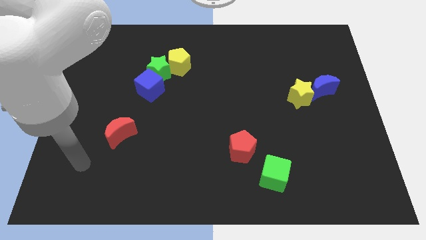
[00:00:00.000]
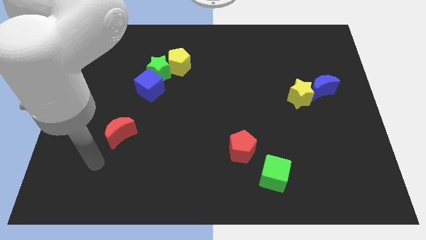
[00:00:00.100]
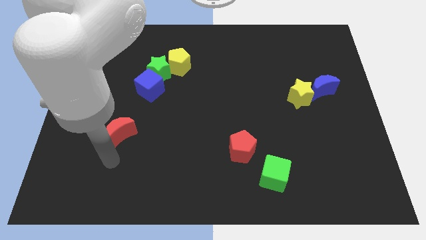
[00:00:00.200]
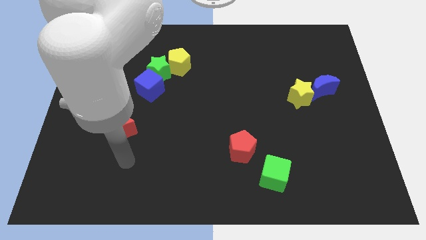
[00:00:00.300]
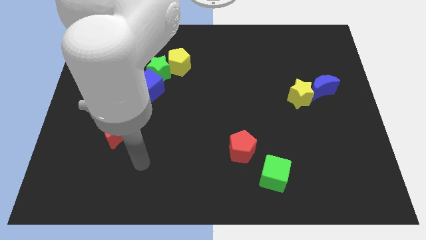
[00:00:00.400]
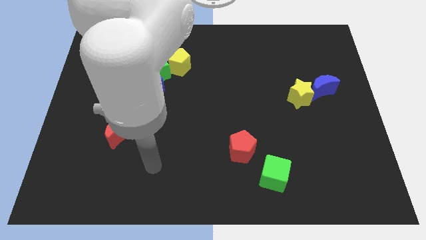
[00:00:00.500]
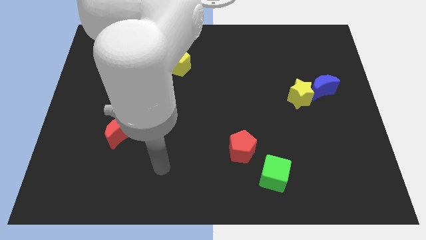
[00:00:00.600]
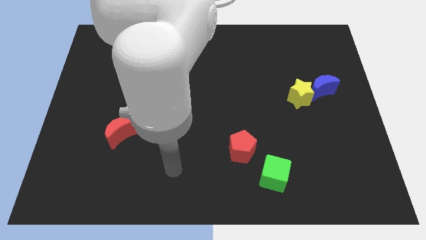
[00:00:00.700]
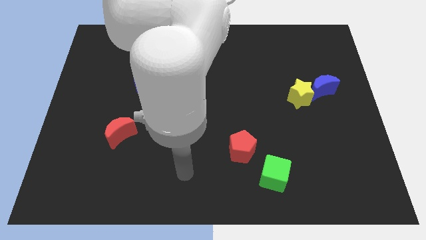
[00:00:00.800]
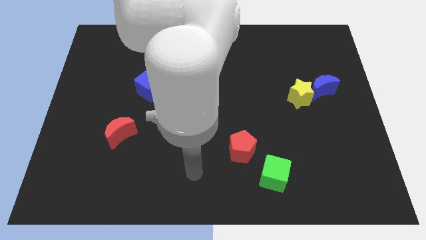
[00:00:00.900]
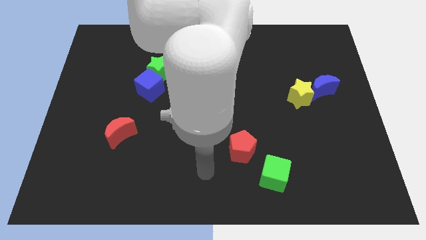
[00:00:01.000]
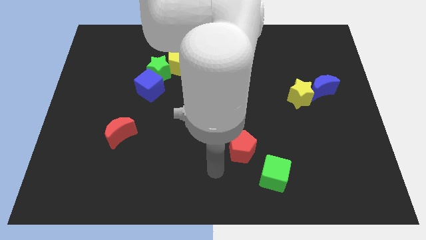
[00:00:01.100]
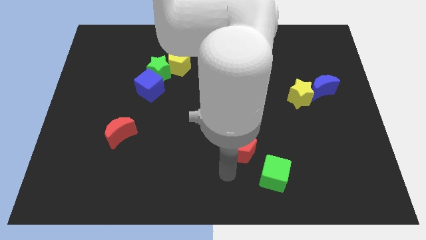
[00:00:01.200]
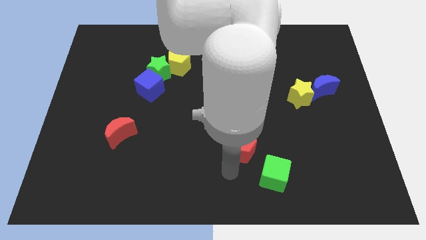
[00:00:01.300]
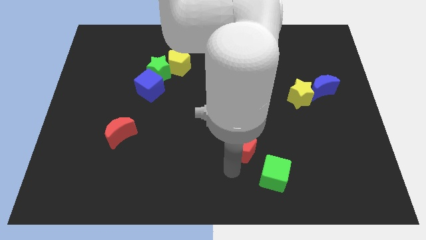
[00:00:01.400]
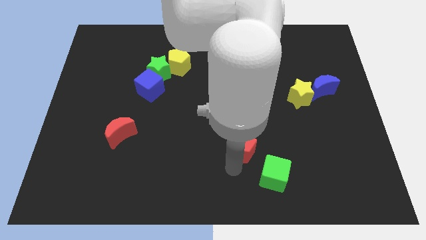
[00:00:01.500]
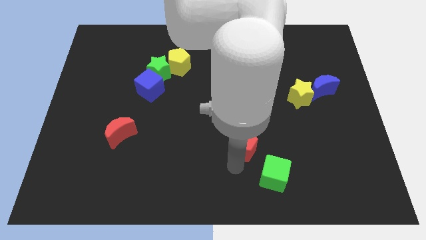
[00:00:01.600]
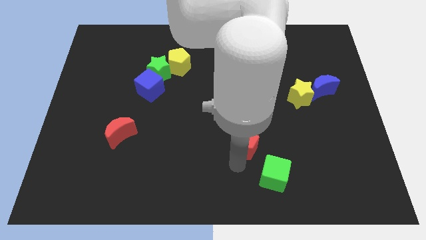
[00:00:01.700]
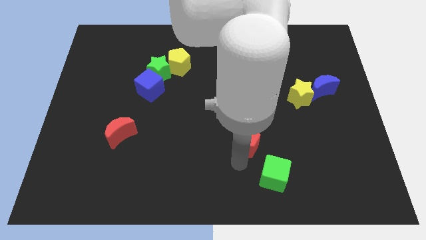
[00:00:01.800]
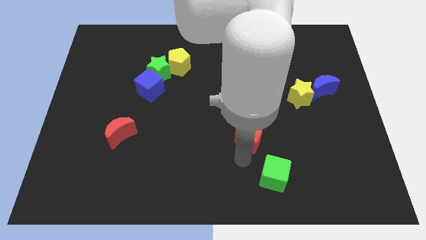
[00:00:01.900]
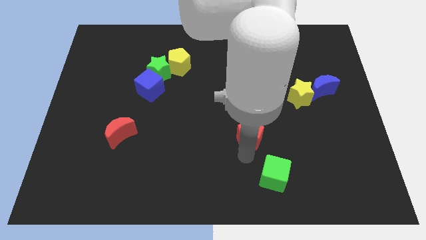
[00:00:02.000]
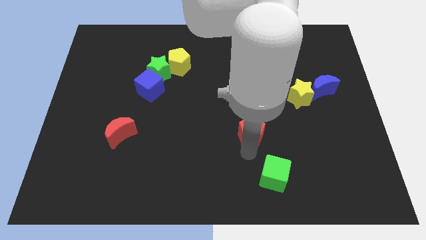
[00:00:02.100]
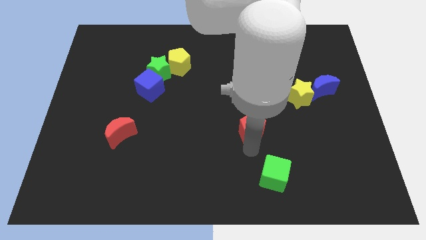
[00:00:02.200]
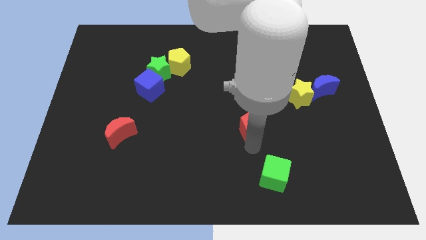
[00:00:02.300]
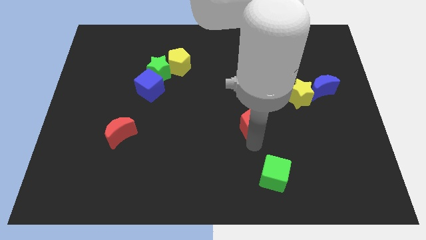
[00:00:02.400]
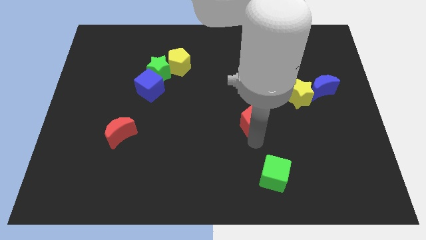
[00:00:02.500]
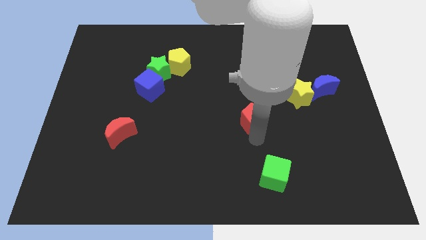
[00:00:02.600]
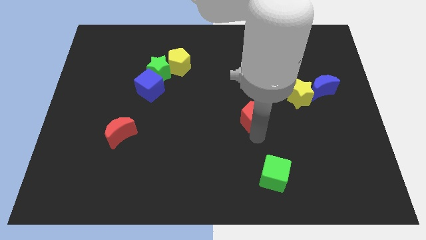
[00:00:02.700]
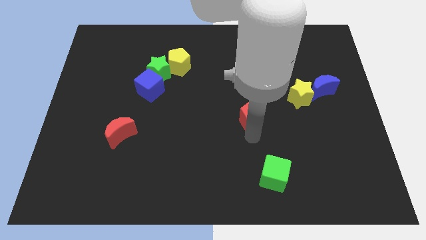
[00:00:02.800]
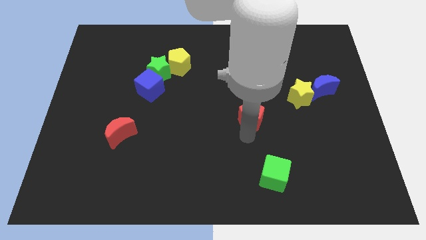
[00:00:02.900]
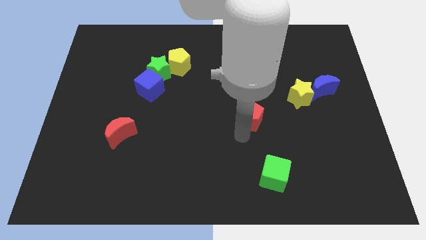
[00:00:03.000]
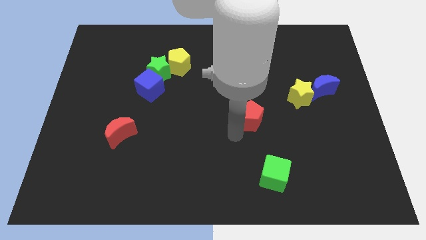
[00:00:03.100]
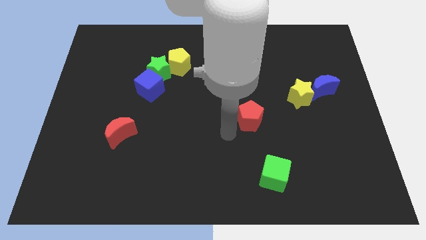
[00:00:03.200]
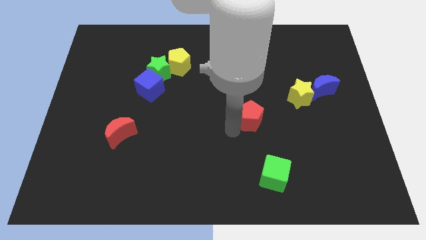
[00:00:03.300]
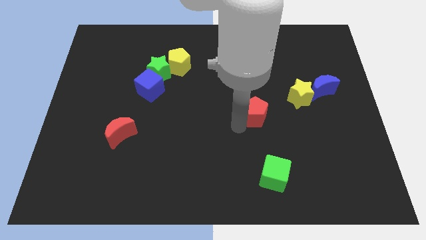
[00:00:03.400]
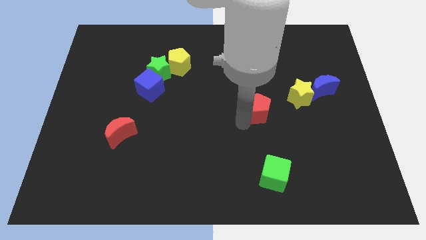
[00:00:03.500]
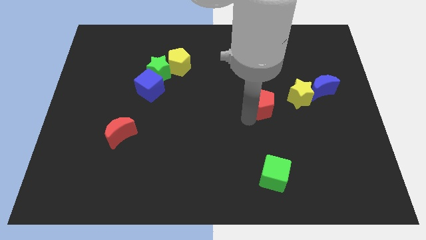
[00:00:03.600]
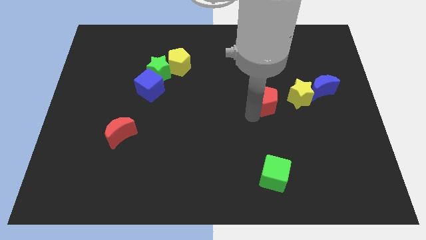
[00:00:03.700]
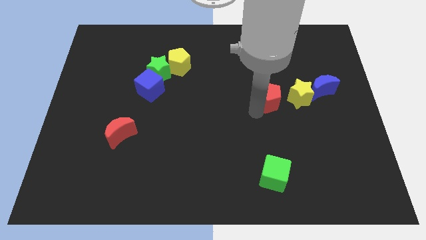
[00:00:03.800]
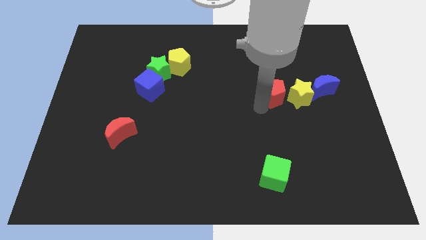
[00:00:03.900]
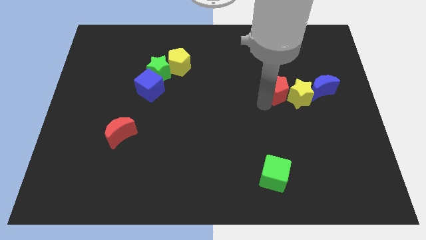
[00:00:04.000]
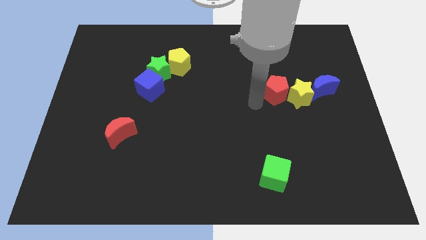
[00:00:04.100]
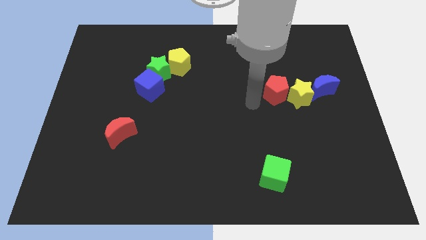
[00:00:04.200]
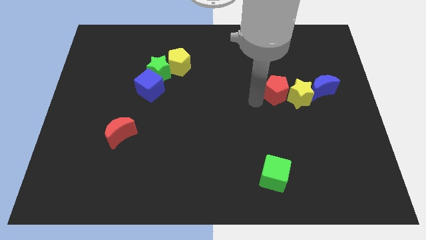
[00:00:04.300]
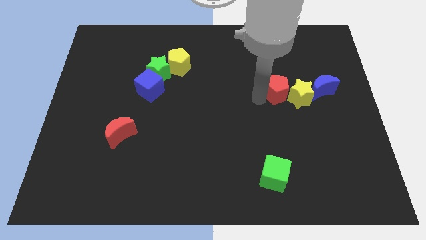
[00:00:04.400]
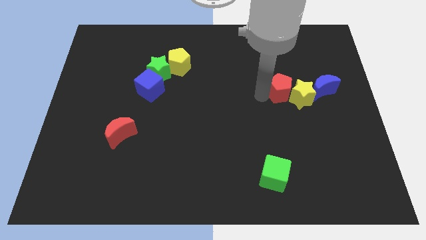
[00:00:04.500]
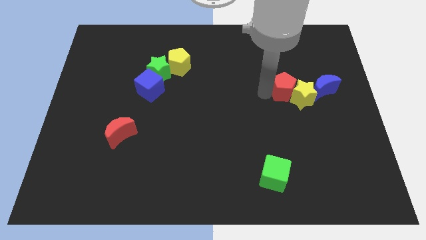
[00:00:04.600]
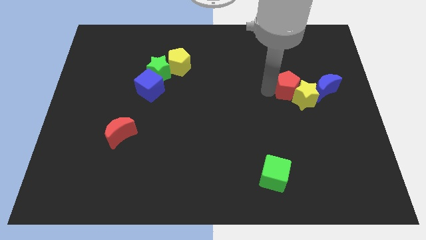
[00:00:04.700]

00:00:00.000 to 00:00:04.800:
push the red pentagon diagonally up and right

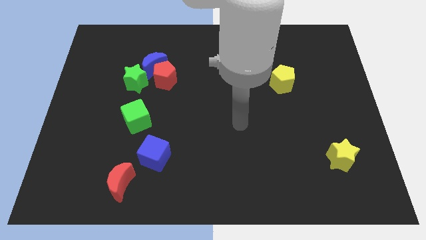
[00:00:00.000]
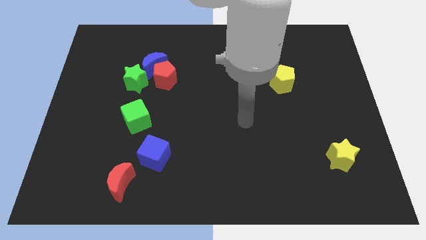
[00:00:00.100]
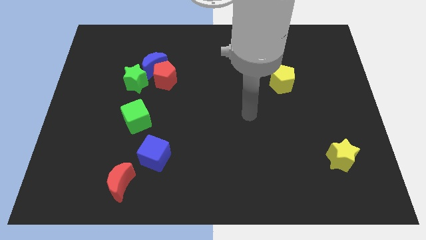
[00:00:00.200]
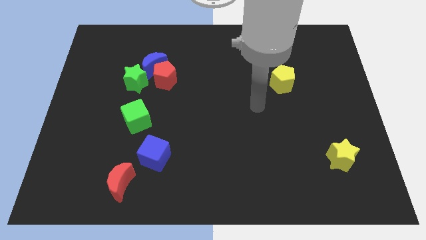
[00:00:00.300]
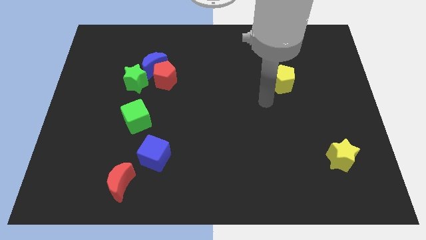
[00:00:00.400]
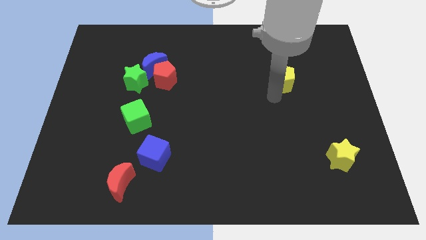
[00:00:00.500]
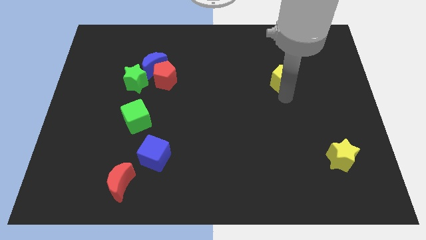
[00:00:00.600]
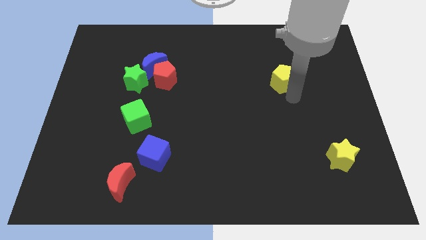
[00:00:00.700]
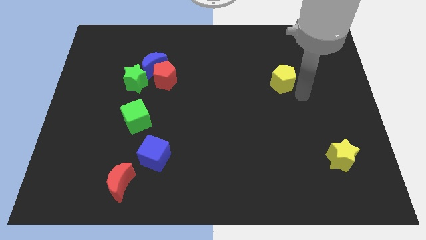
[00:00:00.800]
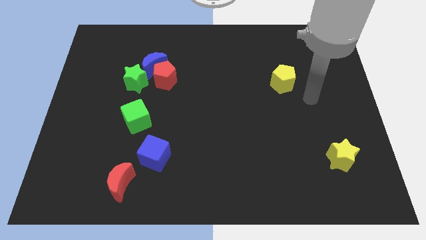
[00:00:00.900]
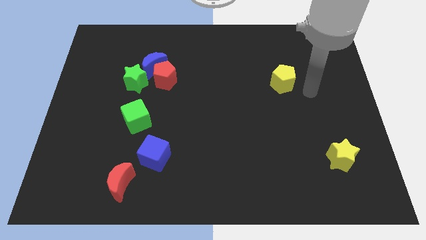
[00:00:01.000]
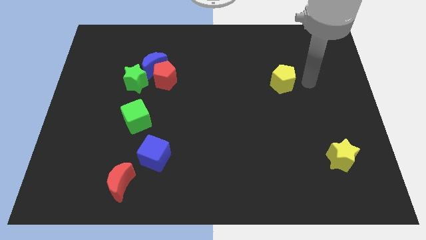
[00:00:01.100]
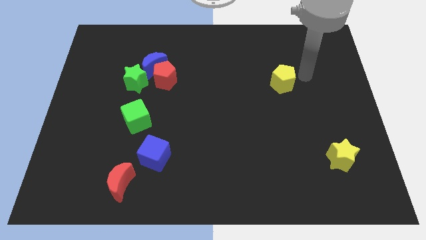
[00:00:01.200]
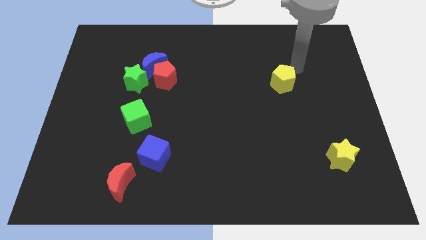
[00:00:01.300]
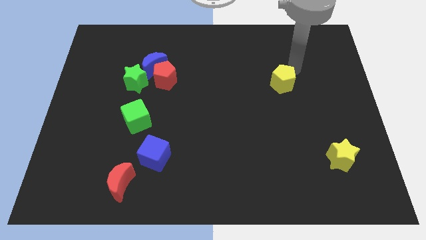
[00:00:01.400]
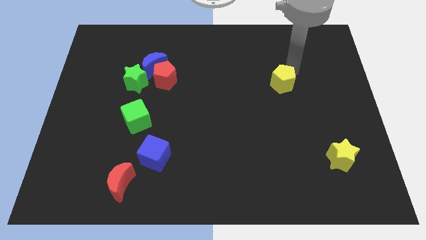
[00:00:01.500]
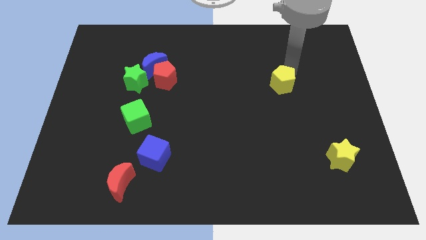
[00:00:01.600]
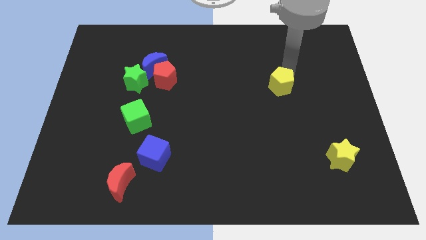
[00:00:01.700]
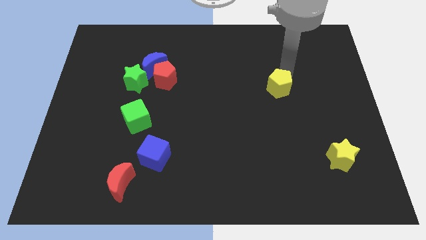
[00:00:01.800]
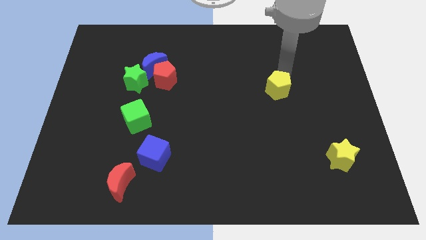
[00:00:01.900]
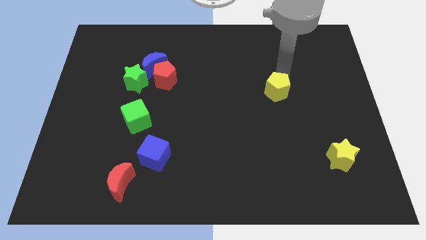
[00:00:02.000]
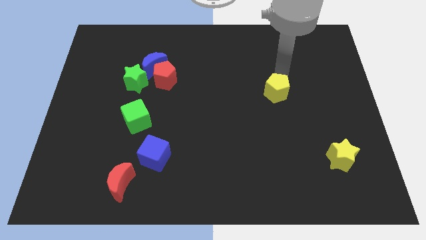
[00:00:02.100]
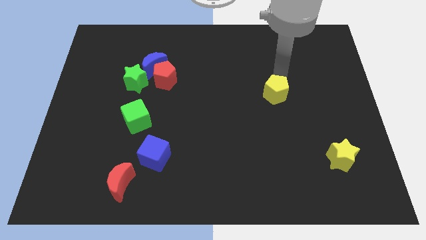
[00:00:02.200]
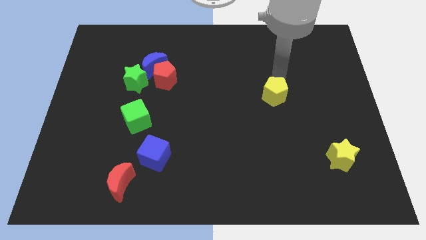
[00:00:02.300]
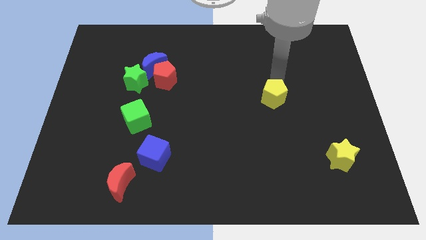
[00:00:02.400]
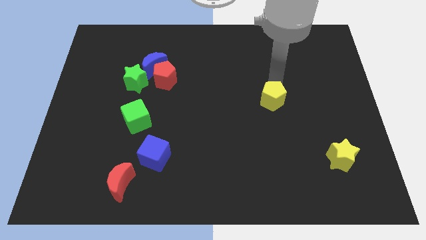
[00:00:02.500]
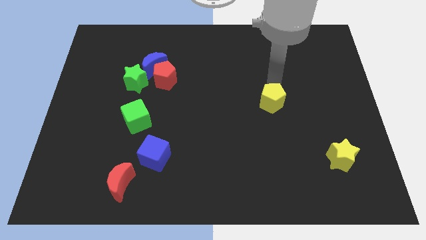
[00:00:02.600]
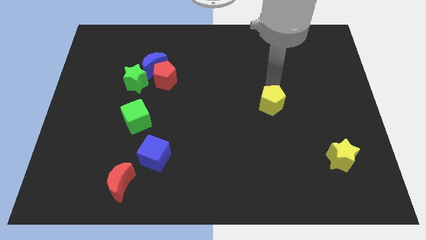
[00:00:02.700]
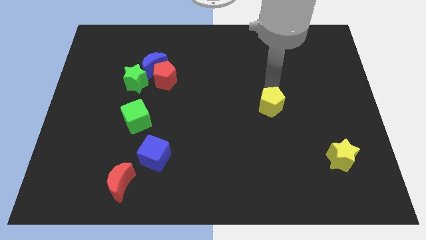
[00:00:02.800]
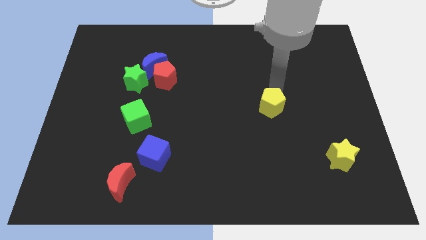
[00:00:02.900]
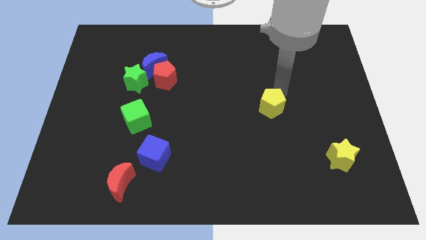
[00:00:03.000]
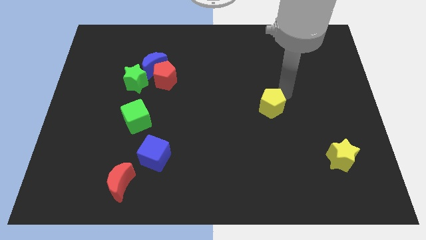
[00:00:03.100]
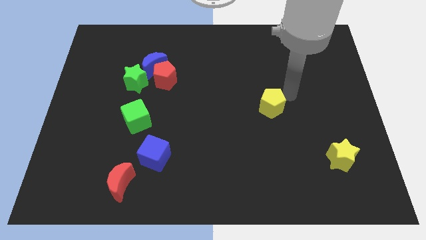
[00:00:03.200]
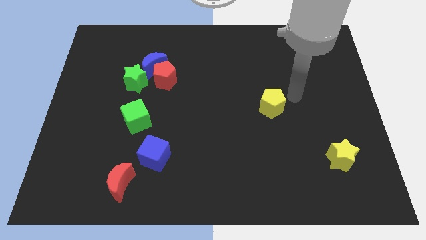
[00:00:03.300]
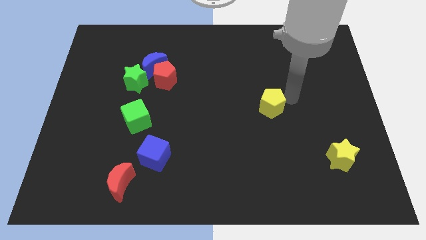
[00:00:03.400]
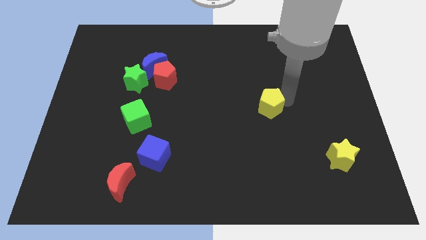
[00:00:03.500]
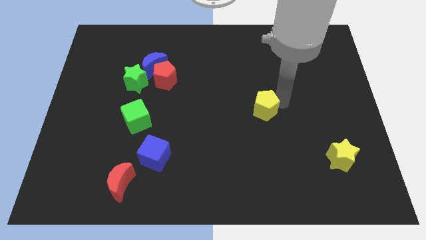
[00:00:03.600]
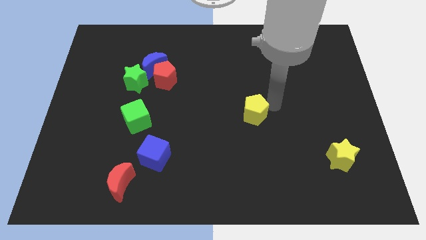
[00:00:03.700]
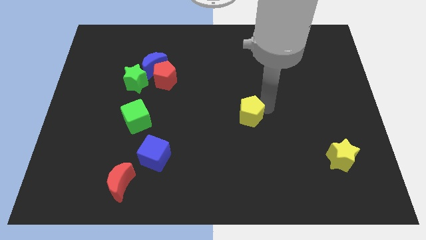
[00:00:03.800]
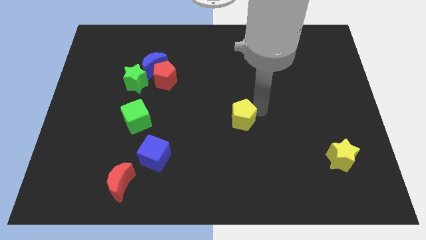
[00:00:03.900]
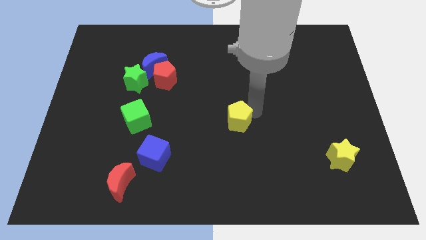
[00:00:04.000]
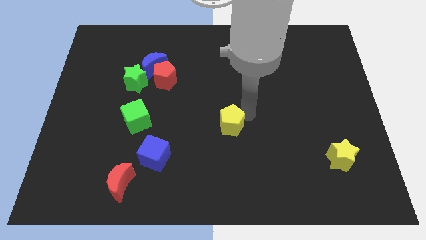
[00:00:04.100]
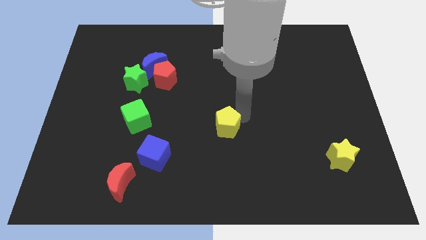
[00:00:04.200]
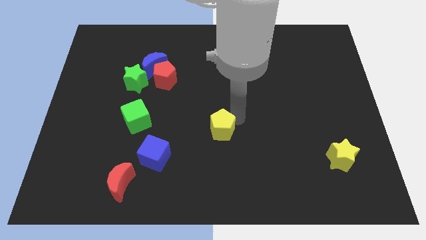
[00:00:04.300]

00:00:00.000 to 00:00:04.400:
move the yellow pentagon diagonally downwards and to the left
